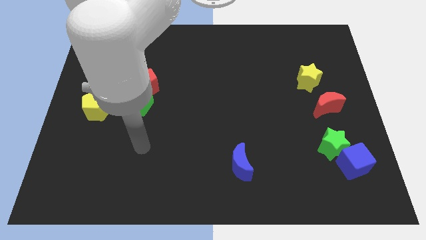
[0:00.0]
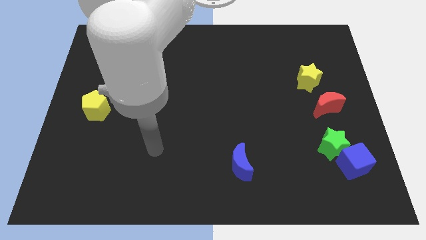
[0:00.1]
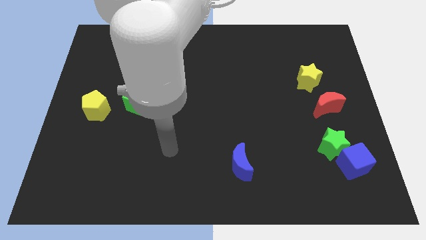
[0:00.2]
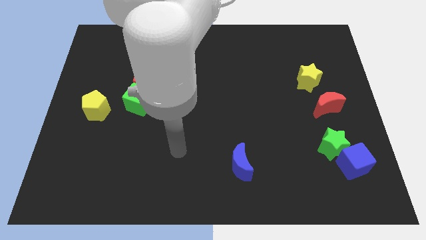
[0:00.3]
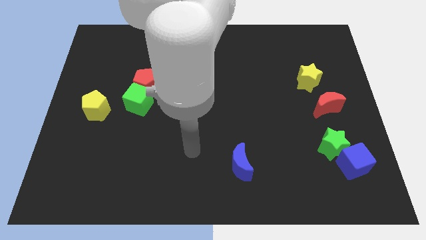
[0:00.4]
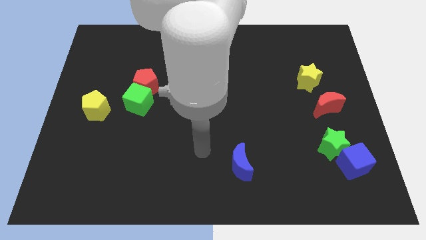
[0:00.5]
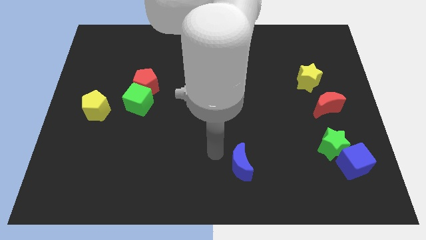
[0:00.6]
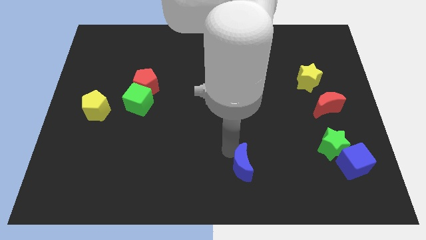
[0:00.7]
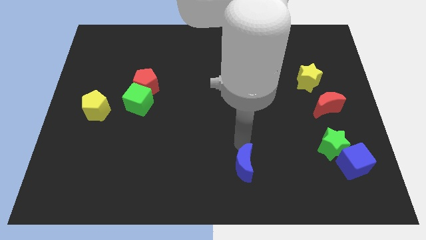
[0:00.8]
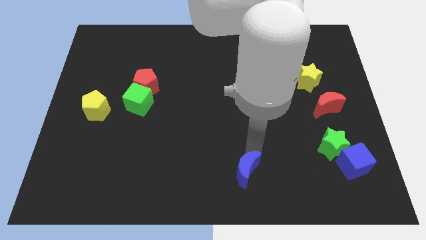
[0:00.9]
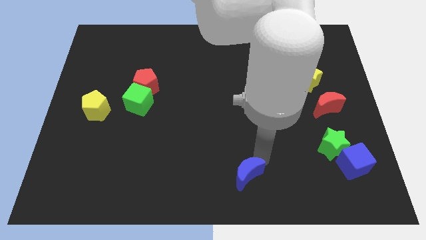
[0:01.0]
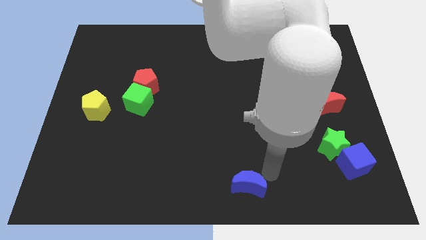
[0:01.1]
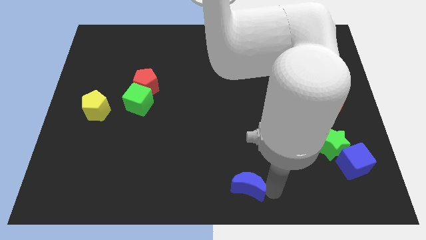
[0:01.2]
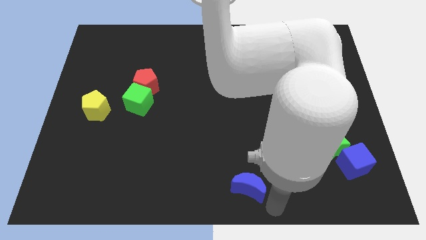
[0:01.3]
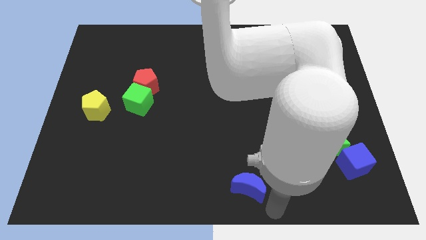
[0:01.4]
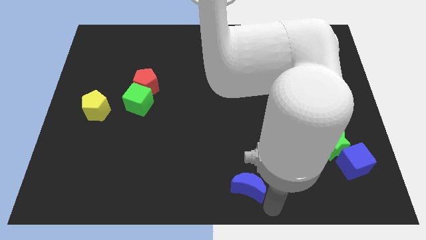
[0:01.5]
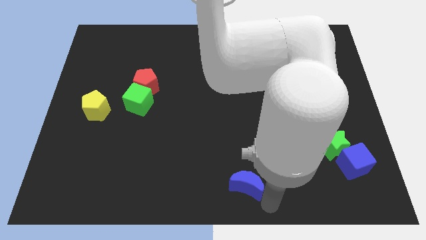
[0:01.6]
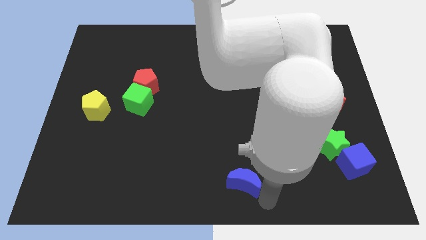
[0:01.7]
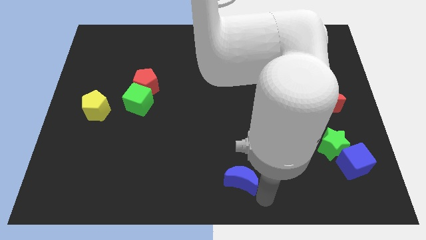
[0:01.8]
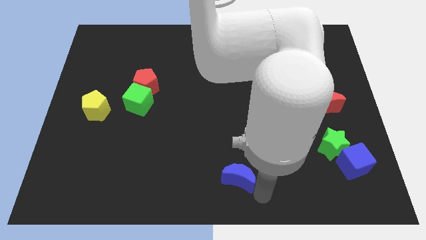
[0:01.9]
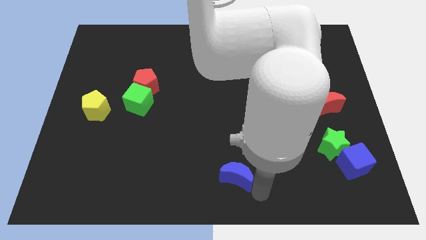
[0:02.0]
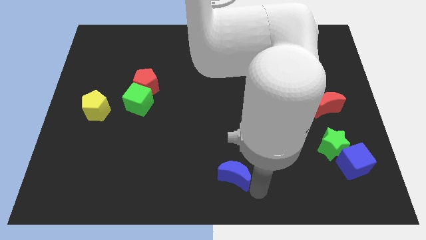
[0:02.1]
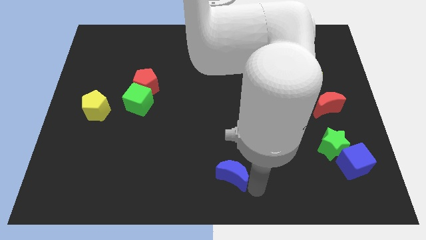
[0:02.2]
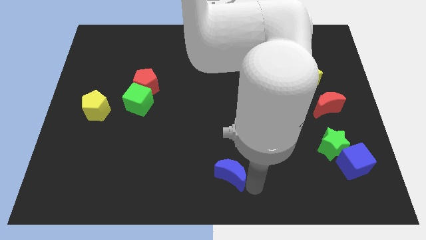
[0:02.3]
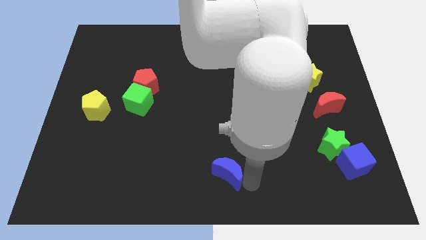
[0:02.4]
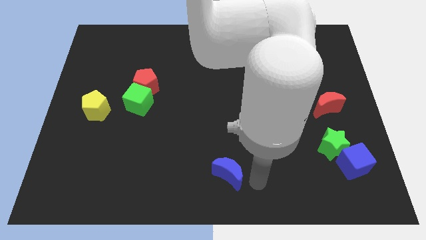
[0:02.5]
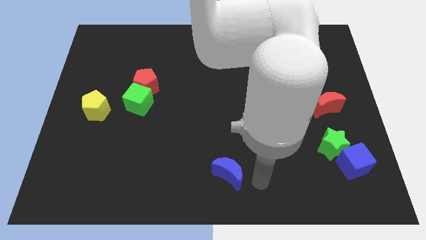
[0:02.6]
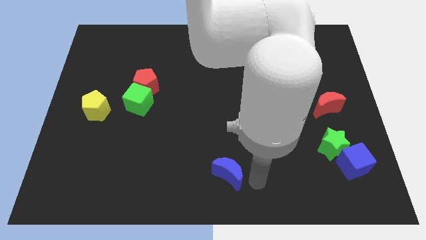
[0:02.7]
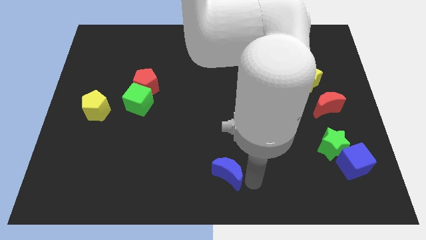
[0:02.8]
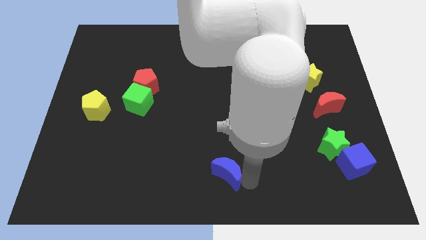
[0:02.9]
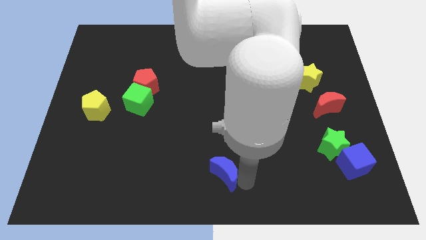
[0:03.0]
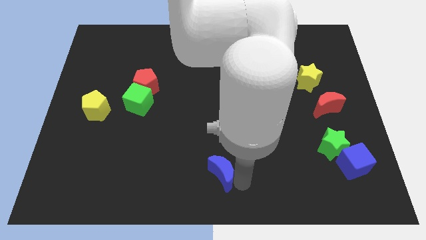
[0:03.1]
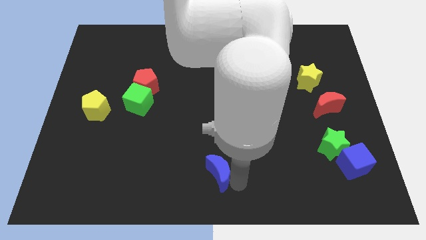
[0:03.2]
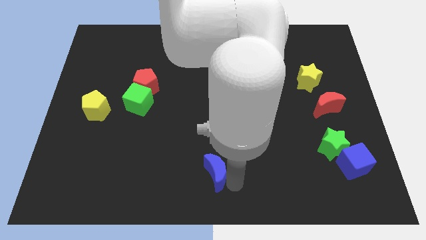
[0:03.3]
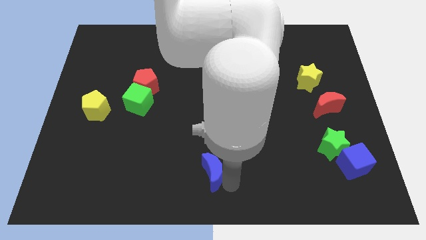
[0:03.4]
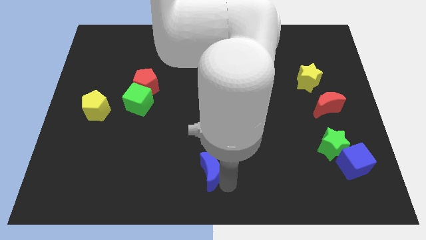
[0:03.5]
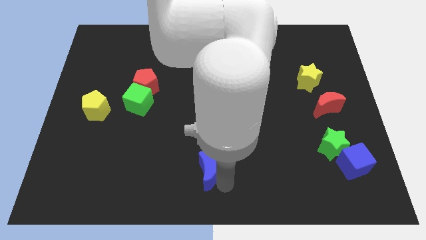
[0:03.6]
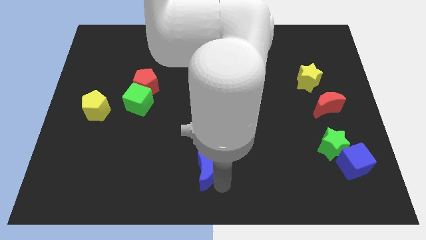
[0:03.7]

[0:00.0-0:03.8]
slide the blue moon somewhat left

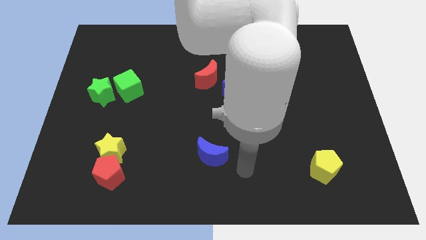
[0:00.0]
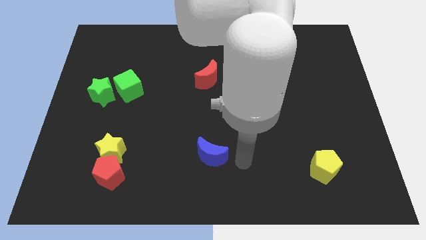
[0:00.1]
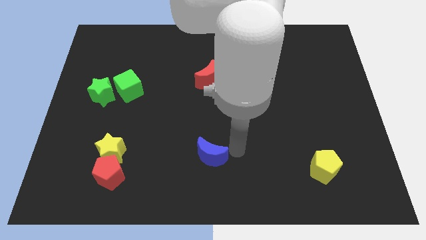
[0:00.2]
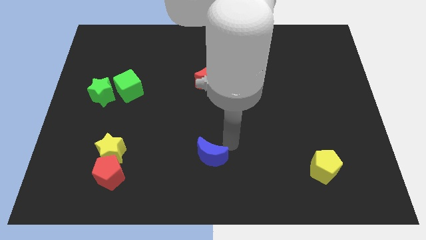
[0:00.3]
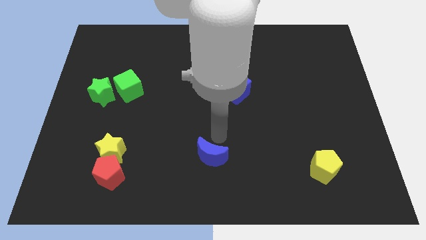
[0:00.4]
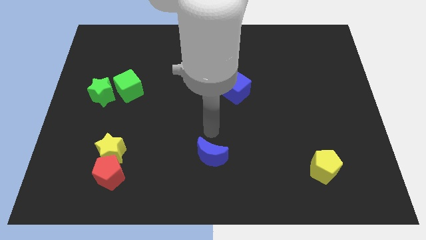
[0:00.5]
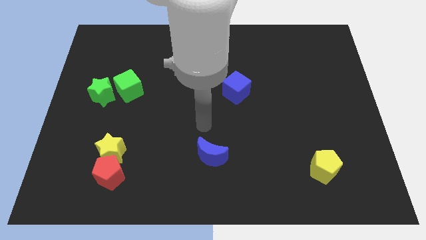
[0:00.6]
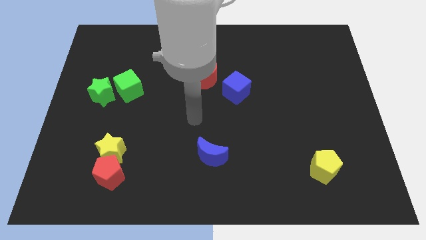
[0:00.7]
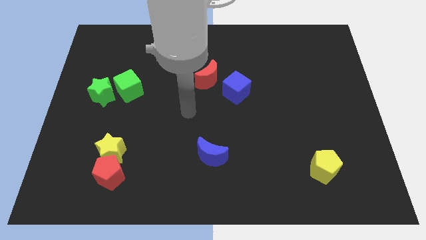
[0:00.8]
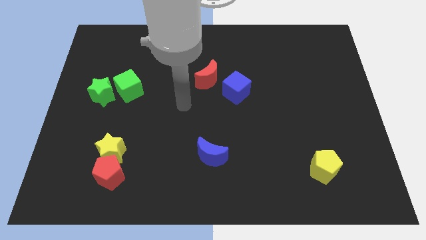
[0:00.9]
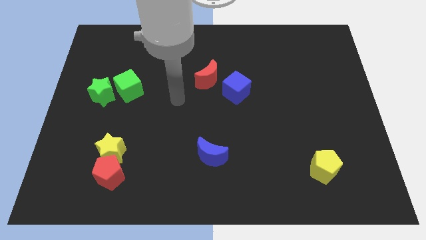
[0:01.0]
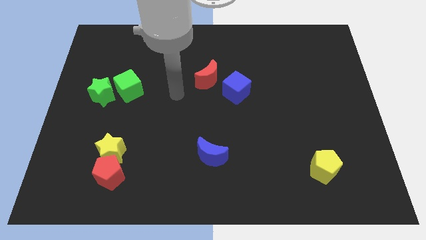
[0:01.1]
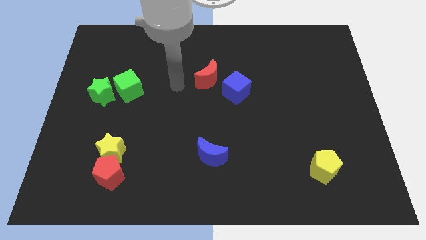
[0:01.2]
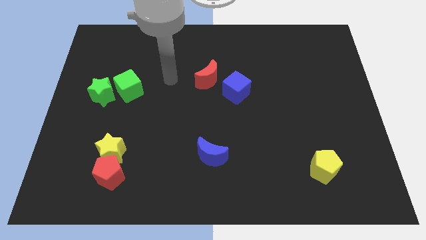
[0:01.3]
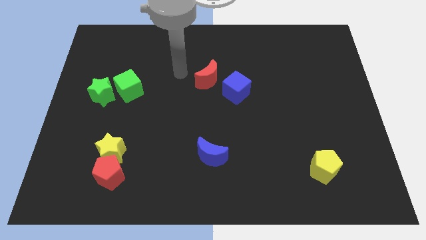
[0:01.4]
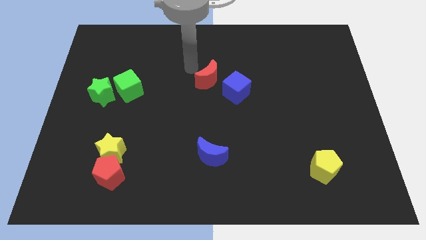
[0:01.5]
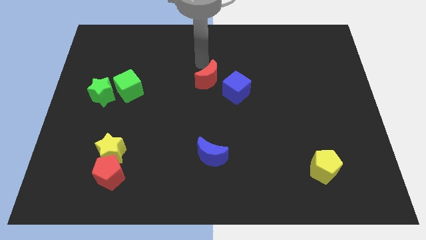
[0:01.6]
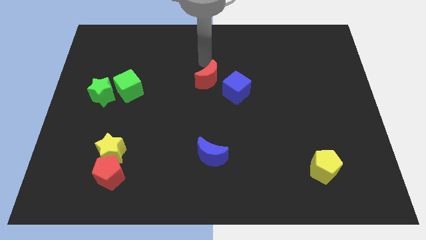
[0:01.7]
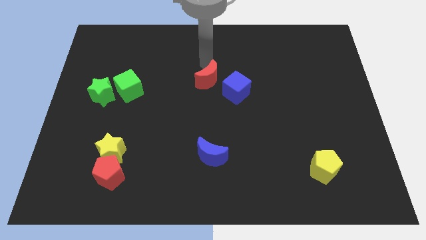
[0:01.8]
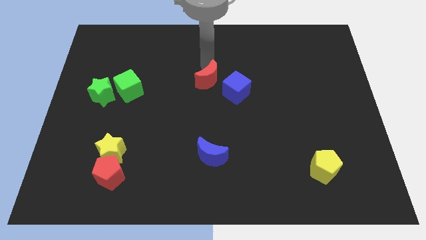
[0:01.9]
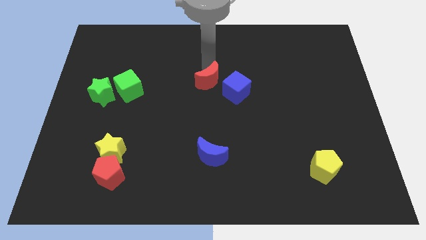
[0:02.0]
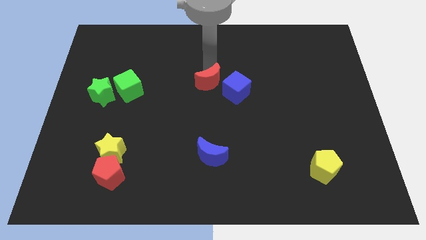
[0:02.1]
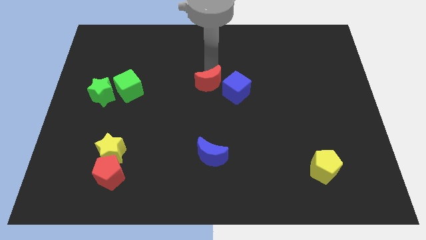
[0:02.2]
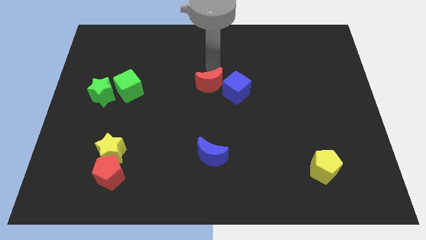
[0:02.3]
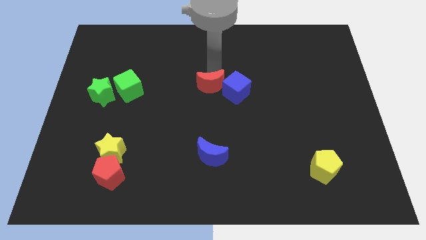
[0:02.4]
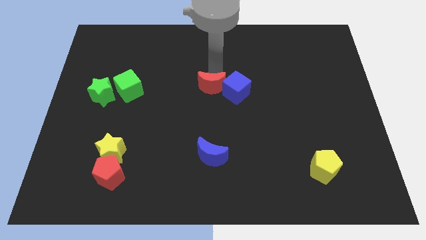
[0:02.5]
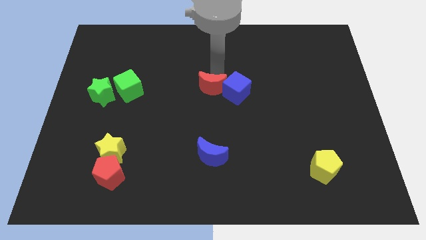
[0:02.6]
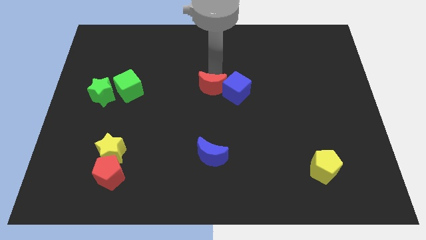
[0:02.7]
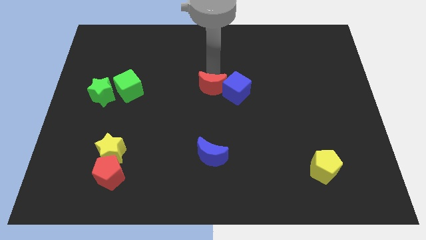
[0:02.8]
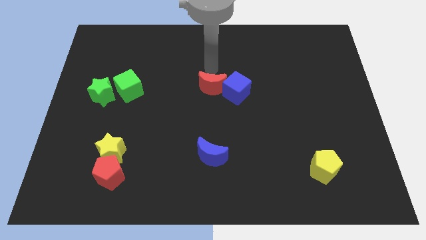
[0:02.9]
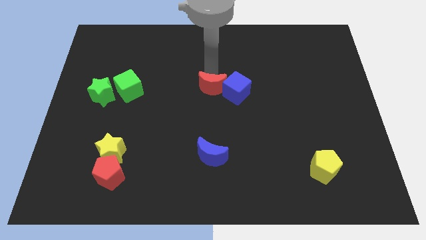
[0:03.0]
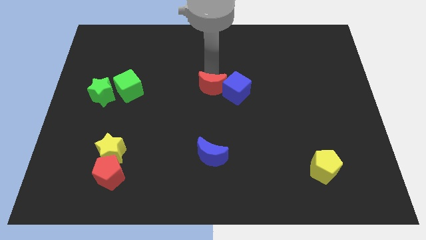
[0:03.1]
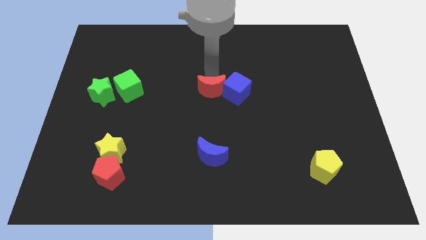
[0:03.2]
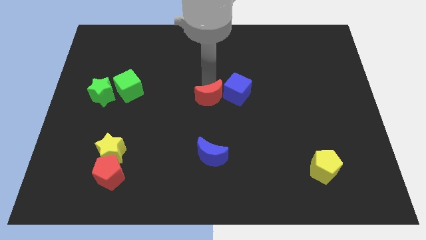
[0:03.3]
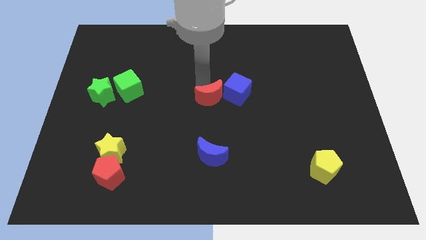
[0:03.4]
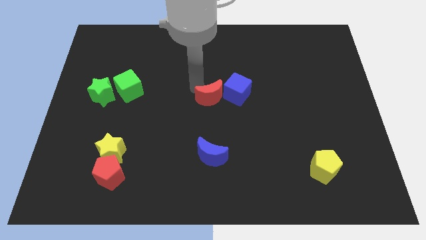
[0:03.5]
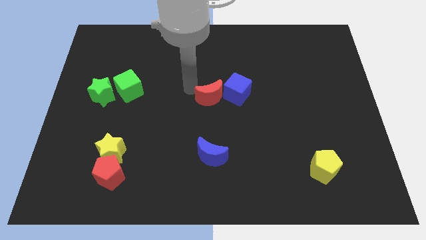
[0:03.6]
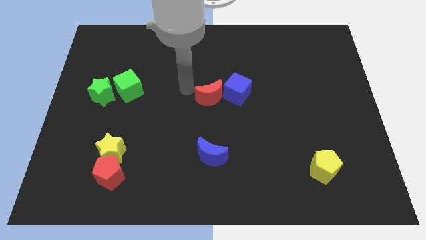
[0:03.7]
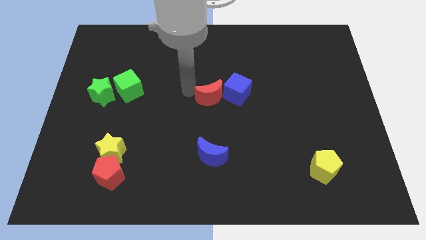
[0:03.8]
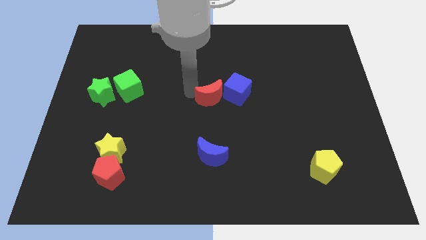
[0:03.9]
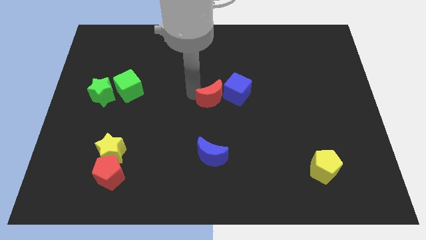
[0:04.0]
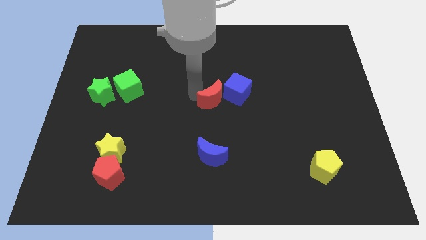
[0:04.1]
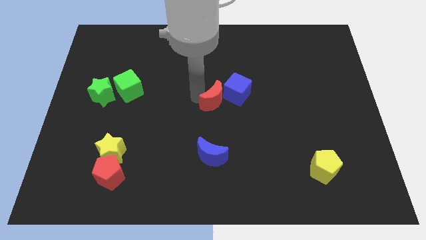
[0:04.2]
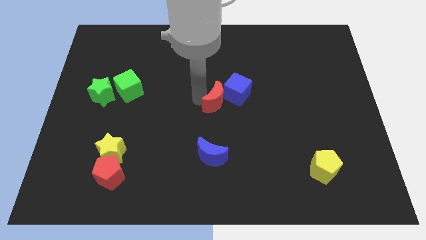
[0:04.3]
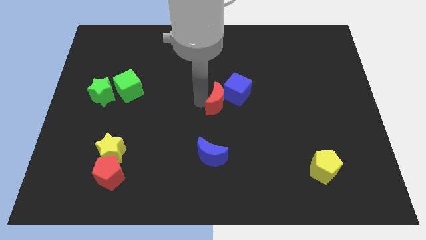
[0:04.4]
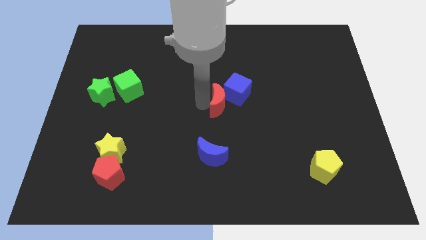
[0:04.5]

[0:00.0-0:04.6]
push the red moon somewhat diagonally downwards and right
